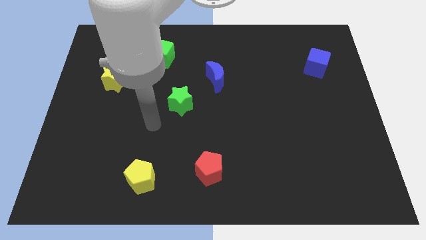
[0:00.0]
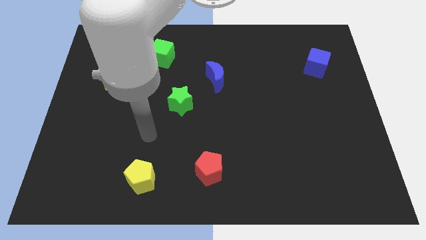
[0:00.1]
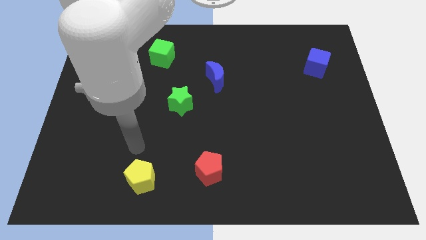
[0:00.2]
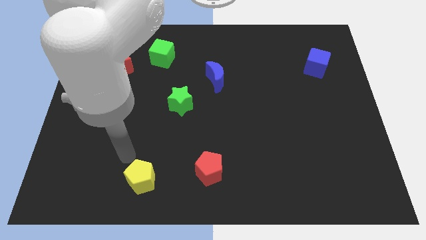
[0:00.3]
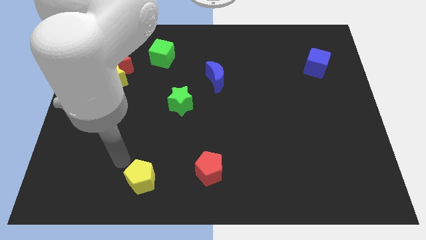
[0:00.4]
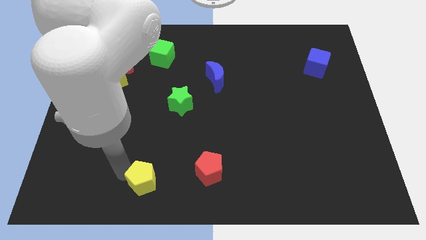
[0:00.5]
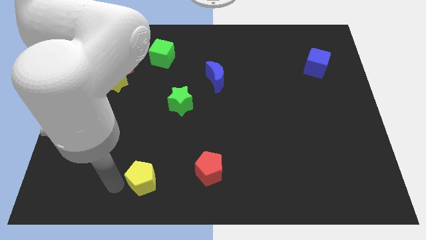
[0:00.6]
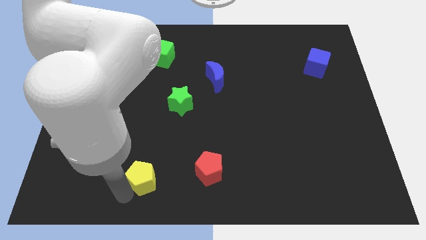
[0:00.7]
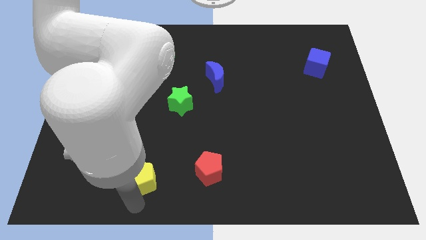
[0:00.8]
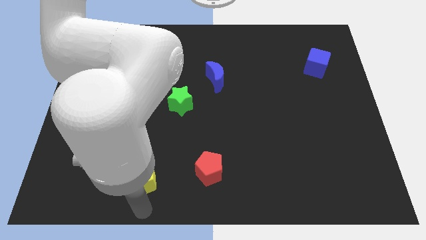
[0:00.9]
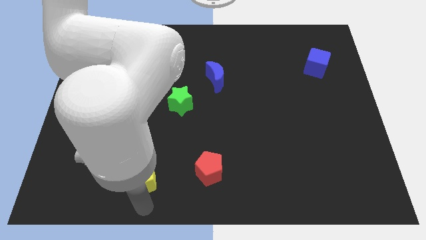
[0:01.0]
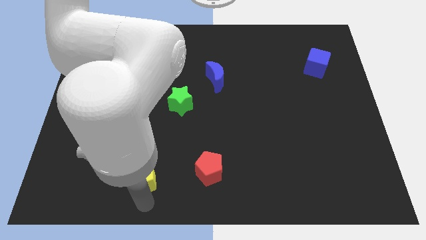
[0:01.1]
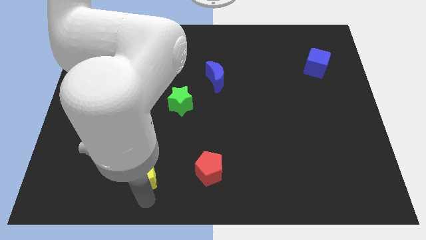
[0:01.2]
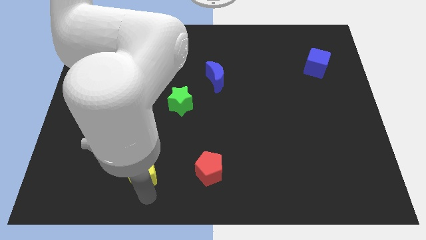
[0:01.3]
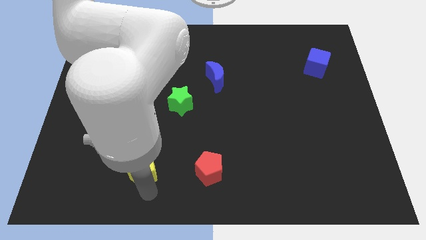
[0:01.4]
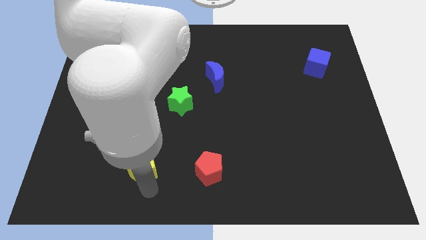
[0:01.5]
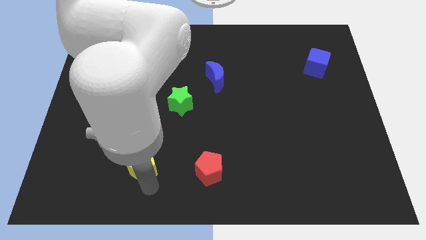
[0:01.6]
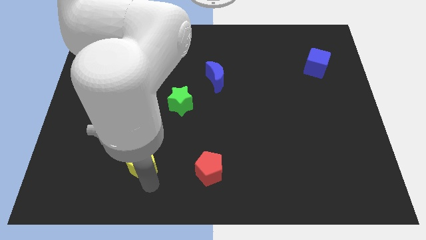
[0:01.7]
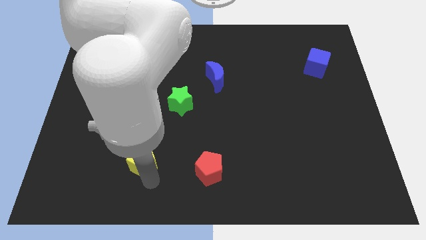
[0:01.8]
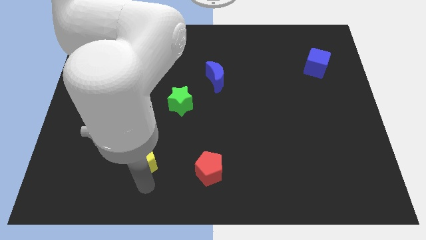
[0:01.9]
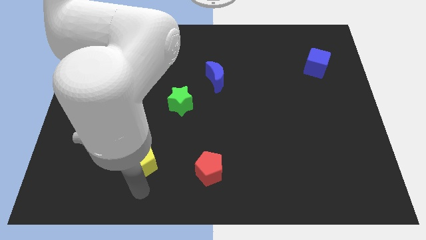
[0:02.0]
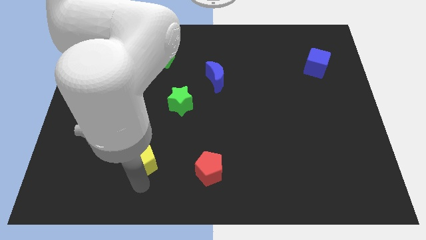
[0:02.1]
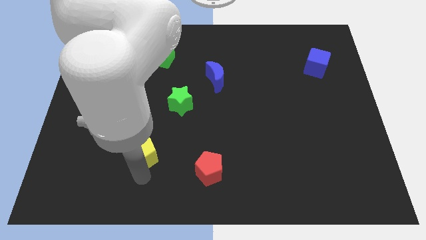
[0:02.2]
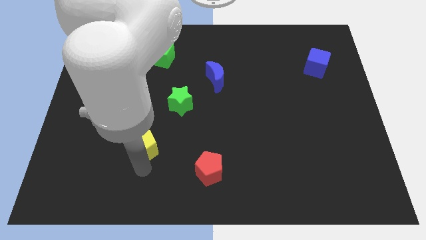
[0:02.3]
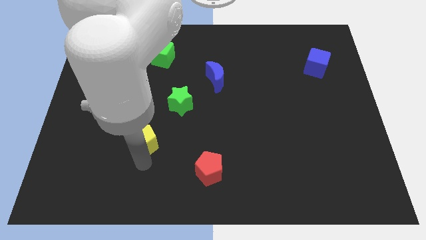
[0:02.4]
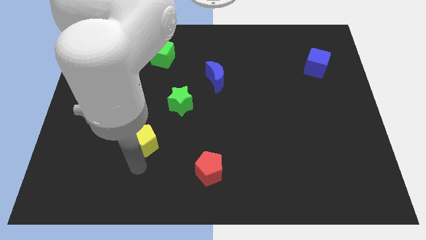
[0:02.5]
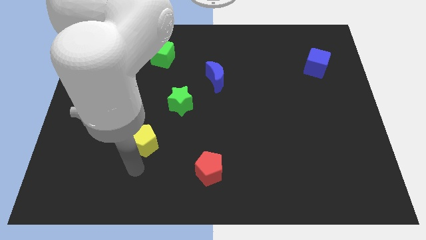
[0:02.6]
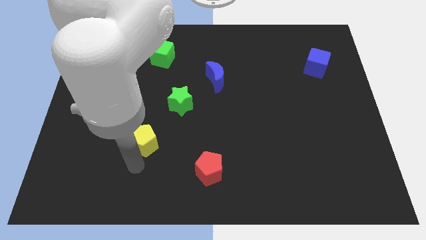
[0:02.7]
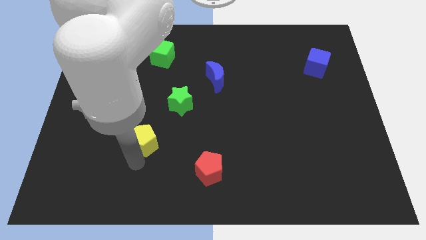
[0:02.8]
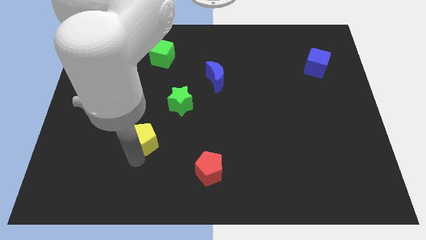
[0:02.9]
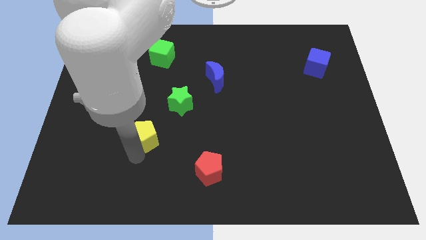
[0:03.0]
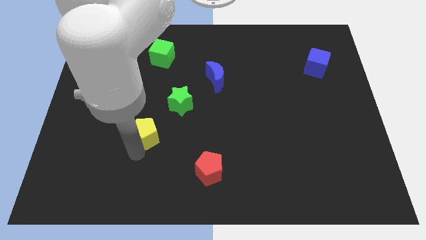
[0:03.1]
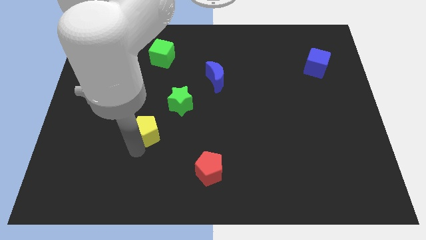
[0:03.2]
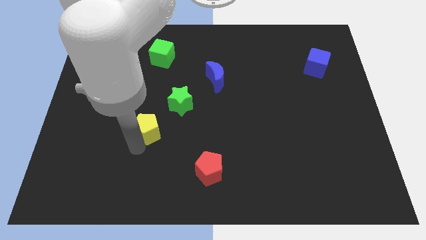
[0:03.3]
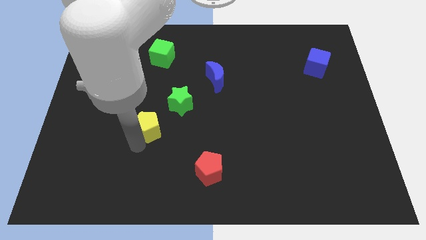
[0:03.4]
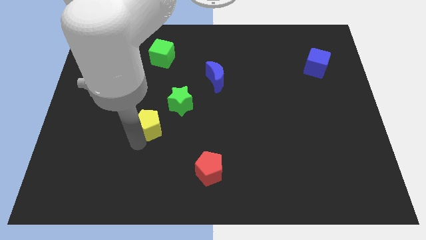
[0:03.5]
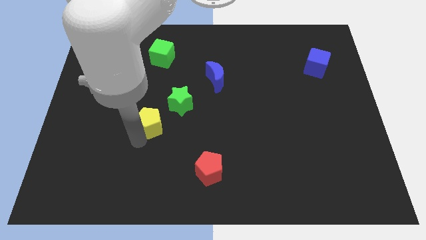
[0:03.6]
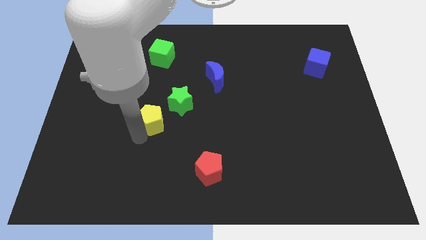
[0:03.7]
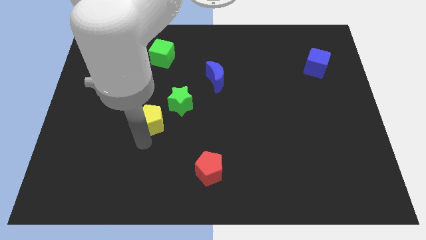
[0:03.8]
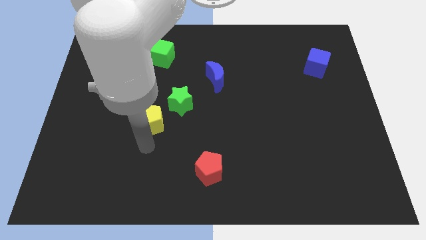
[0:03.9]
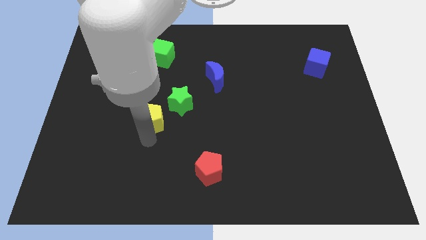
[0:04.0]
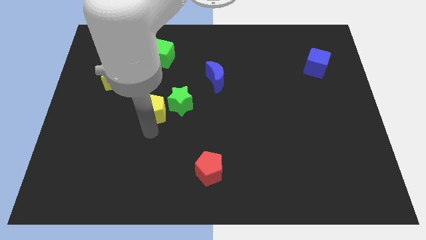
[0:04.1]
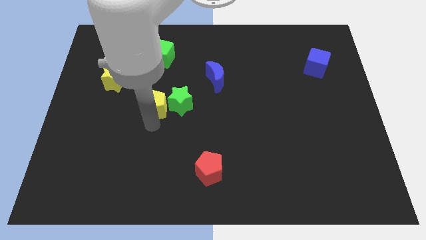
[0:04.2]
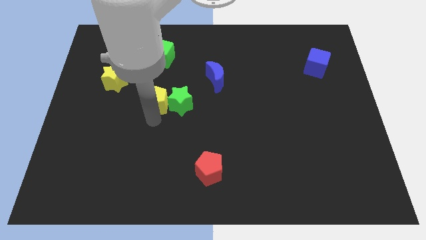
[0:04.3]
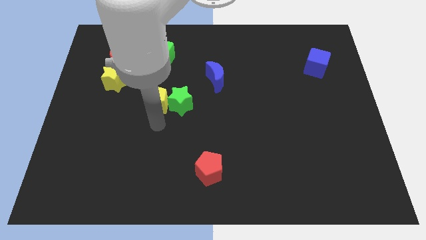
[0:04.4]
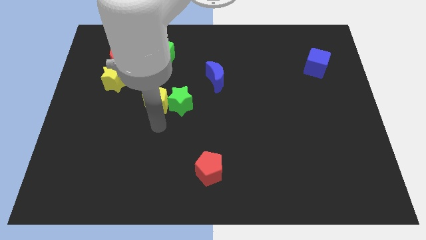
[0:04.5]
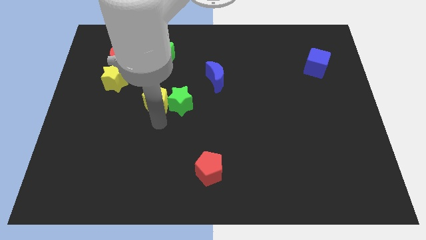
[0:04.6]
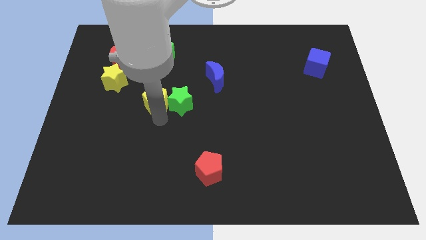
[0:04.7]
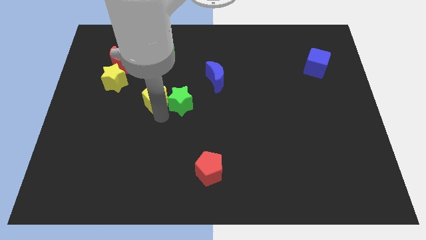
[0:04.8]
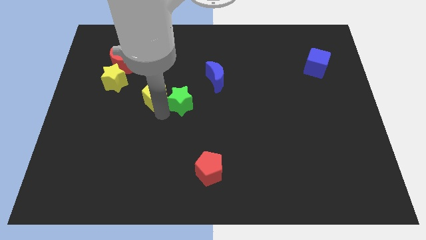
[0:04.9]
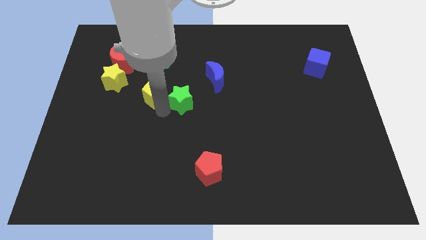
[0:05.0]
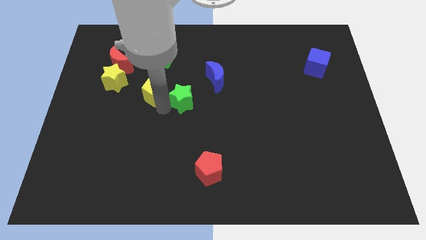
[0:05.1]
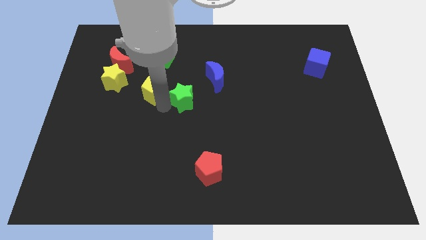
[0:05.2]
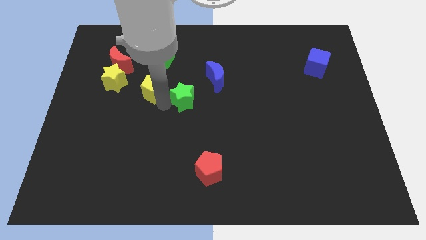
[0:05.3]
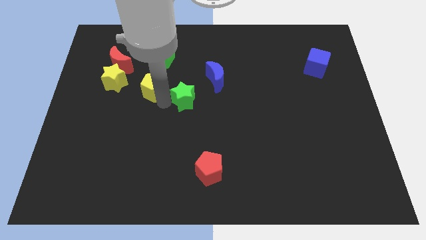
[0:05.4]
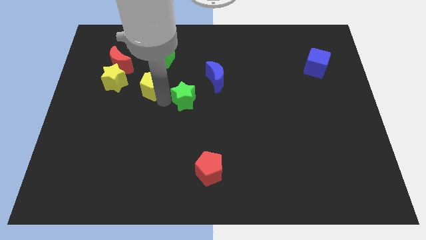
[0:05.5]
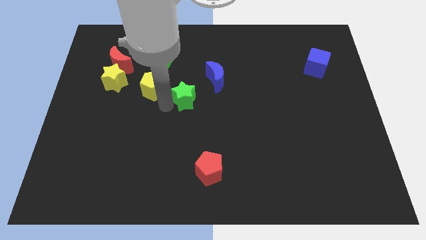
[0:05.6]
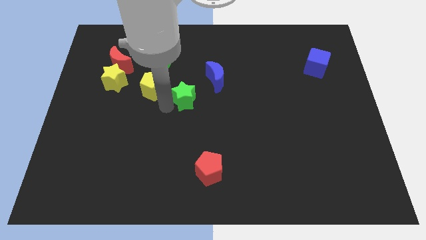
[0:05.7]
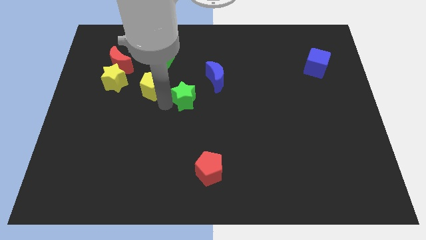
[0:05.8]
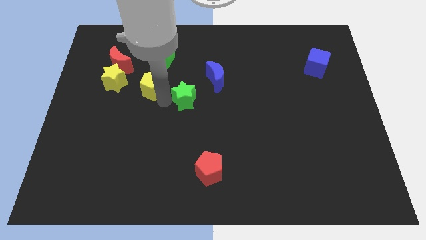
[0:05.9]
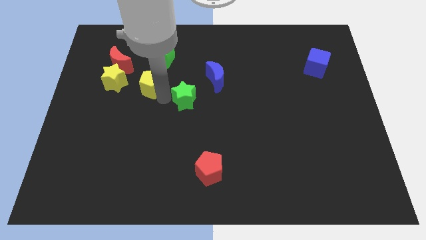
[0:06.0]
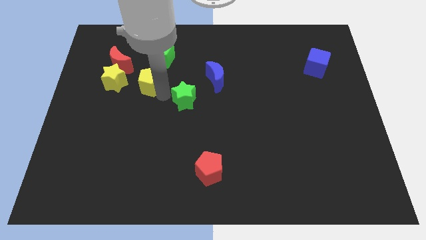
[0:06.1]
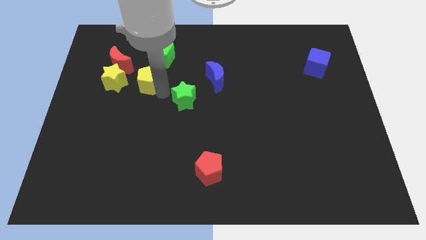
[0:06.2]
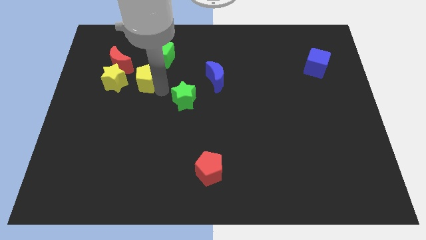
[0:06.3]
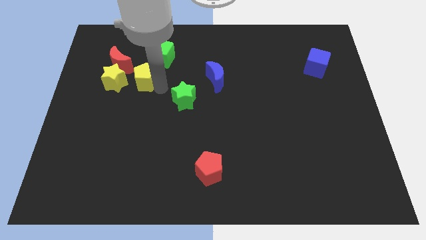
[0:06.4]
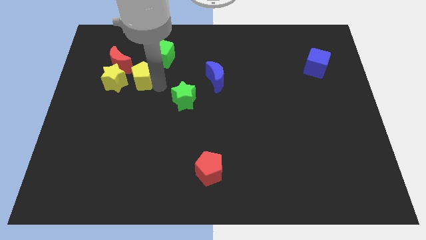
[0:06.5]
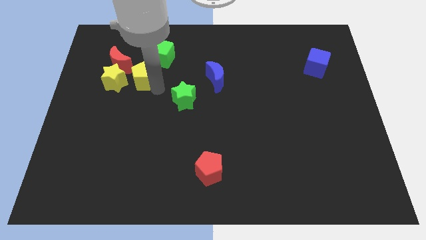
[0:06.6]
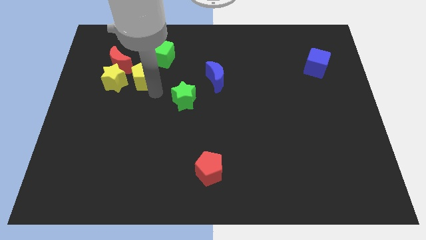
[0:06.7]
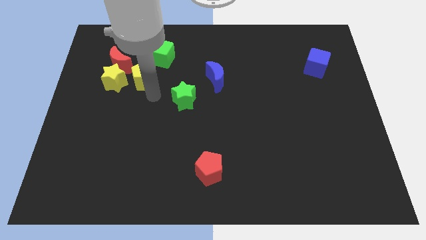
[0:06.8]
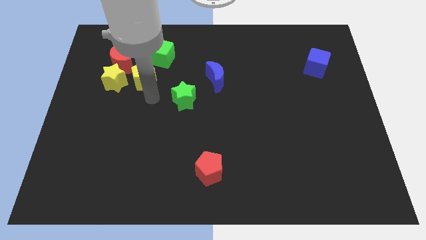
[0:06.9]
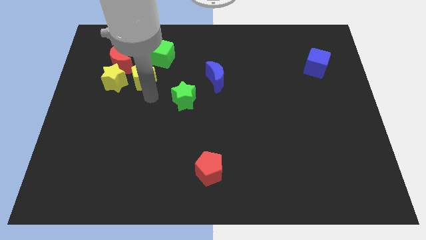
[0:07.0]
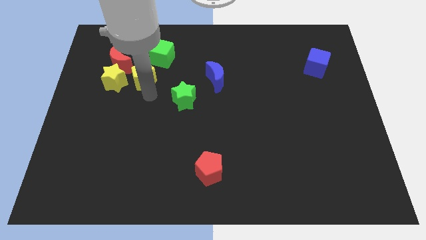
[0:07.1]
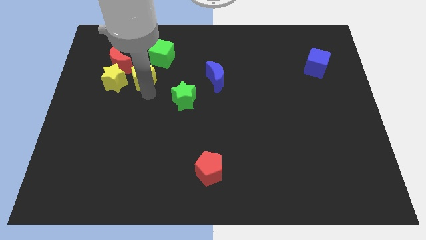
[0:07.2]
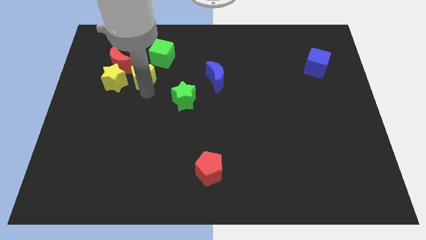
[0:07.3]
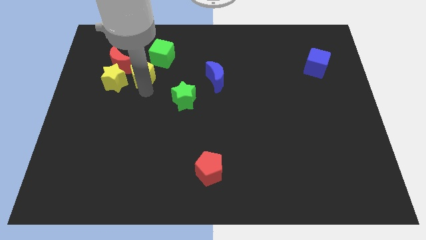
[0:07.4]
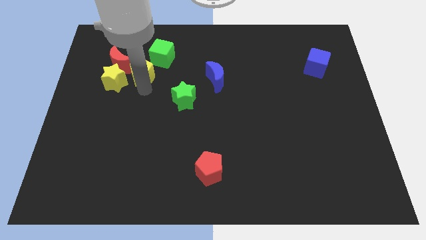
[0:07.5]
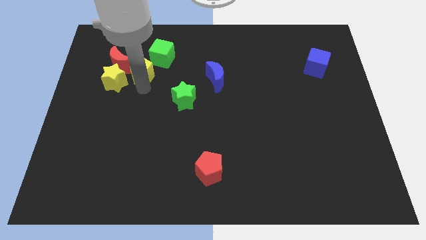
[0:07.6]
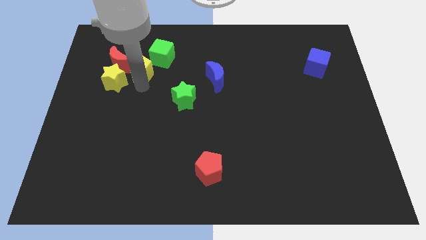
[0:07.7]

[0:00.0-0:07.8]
slide the yellow pentagon next to the red moon
